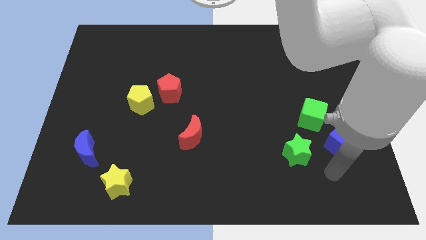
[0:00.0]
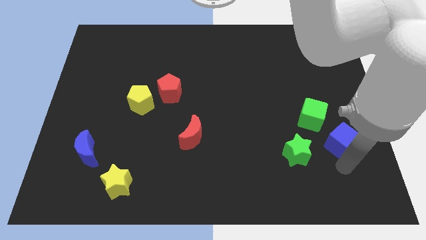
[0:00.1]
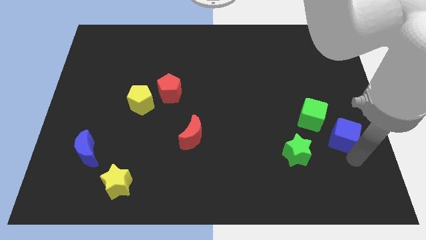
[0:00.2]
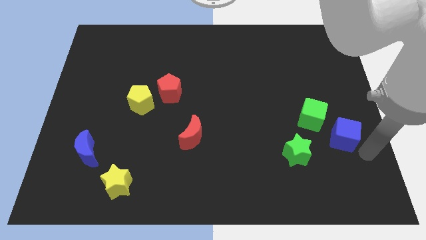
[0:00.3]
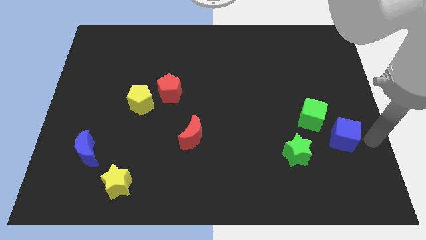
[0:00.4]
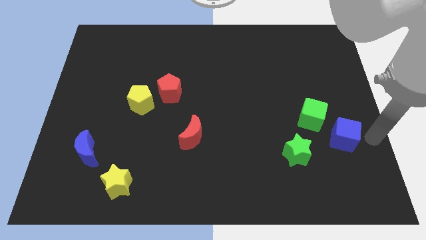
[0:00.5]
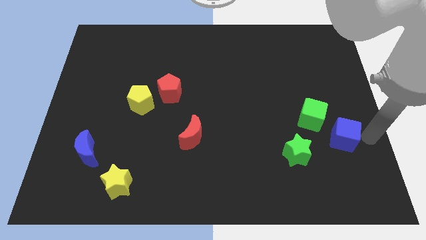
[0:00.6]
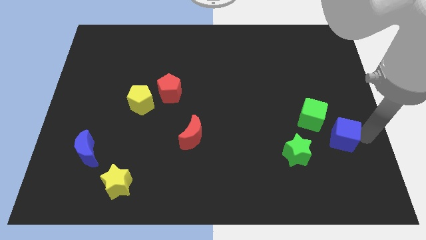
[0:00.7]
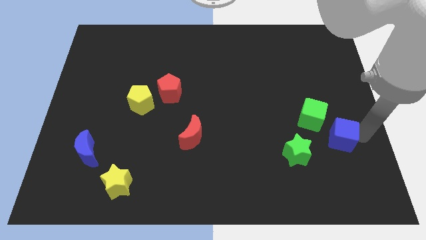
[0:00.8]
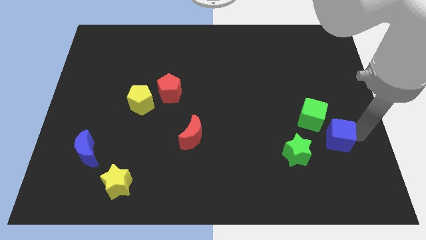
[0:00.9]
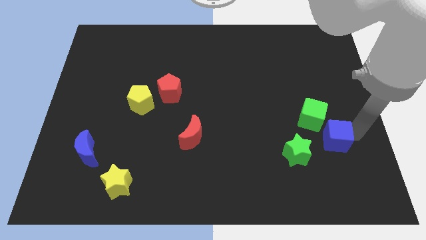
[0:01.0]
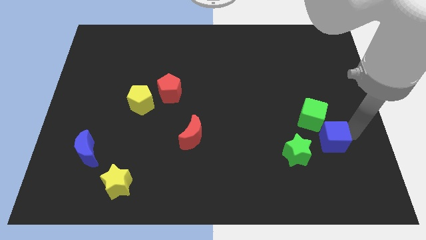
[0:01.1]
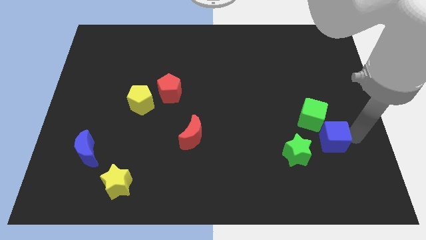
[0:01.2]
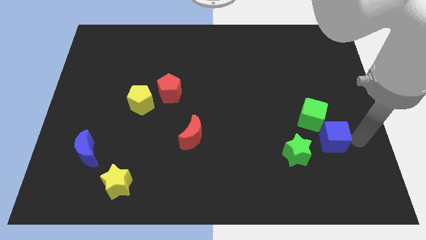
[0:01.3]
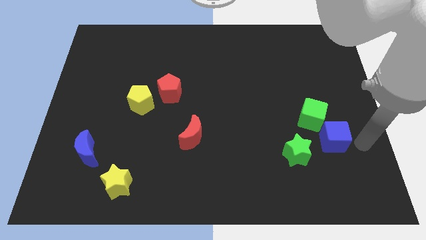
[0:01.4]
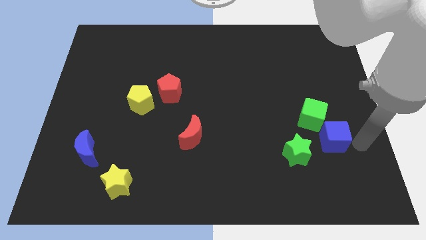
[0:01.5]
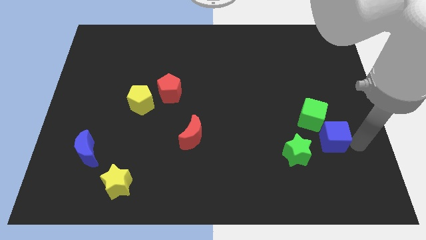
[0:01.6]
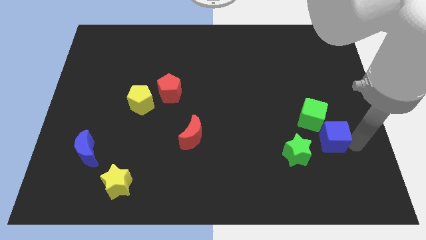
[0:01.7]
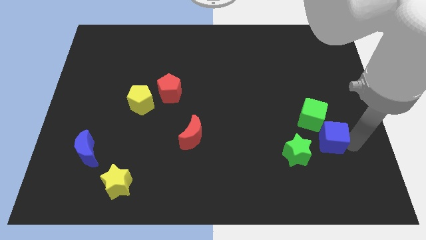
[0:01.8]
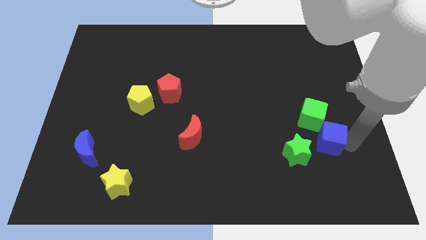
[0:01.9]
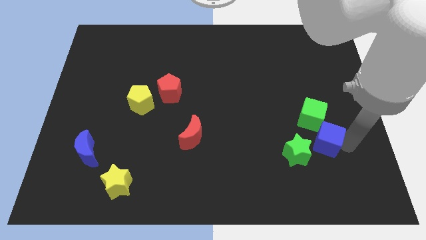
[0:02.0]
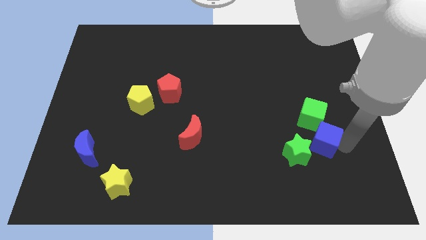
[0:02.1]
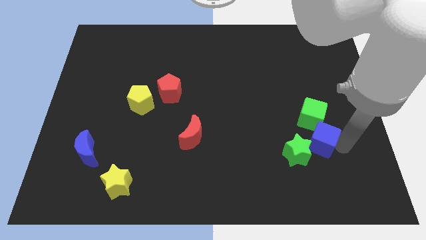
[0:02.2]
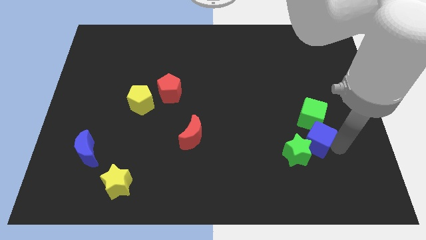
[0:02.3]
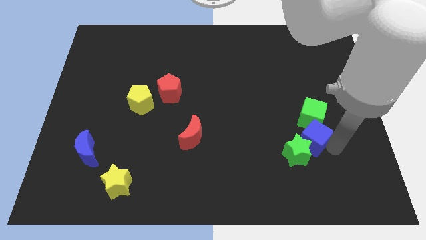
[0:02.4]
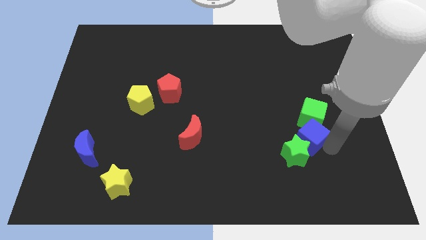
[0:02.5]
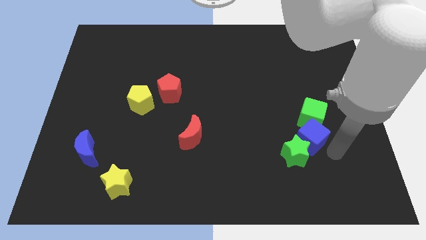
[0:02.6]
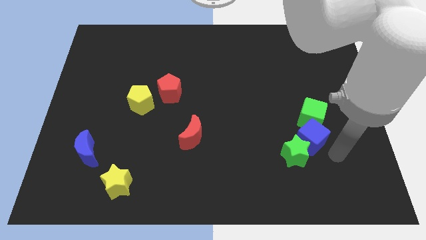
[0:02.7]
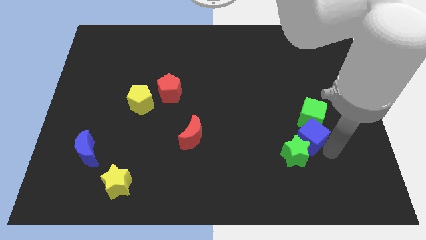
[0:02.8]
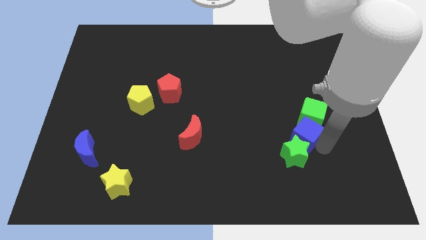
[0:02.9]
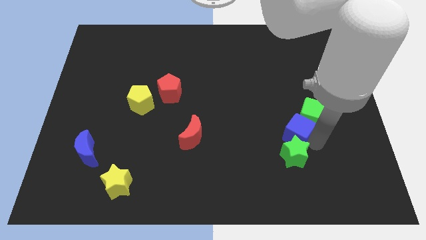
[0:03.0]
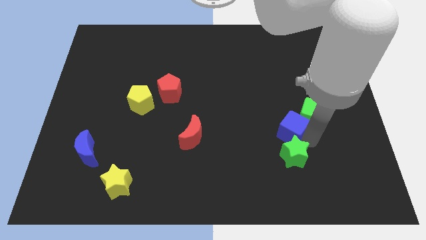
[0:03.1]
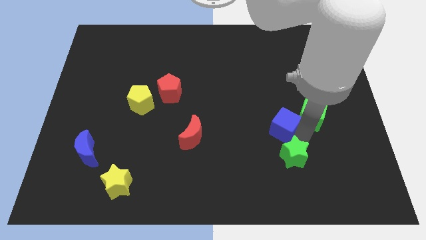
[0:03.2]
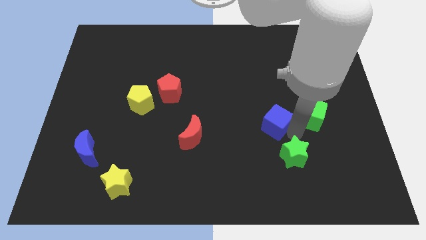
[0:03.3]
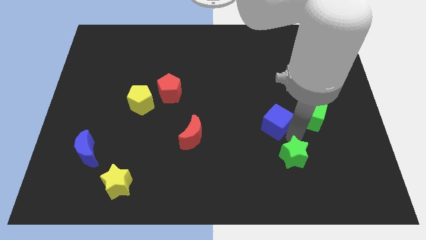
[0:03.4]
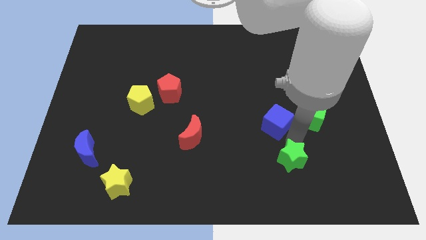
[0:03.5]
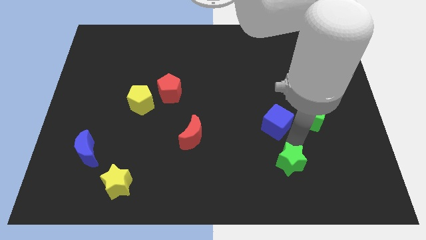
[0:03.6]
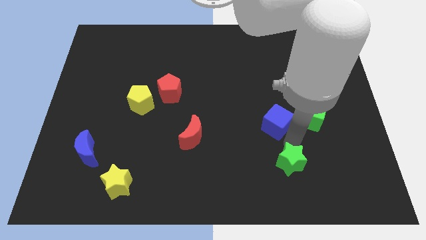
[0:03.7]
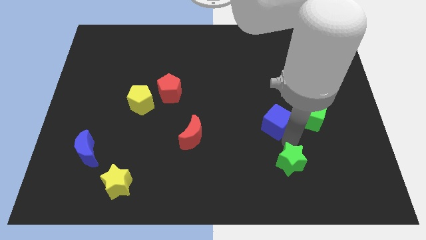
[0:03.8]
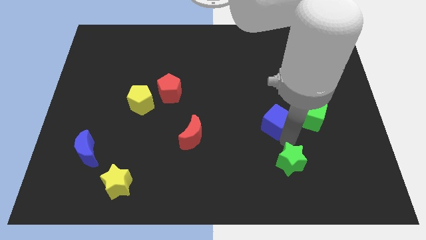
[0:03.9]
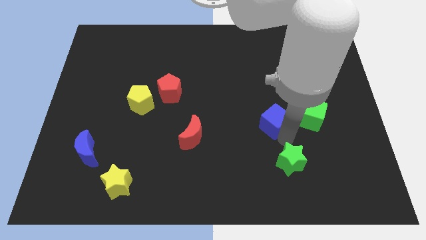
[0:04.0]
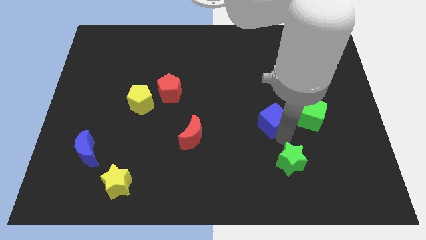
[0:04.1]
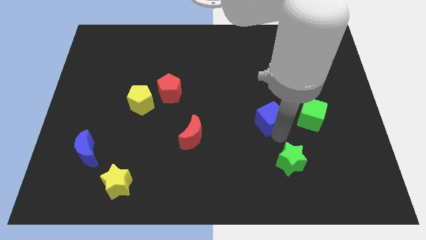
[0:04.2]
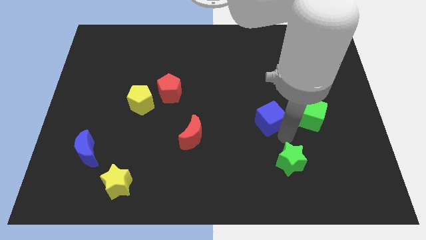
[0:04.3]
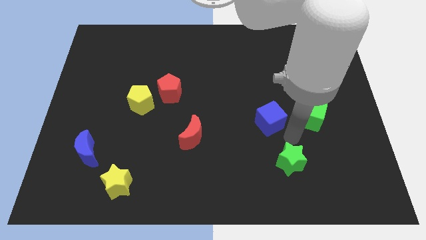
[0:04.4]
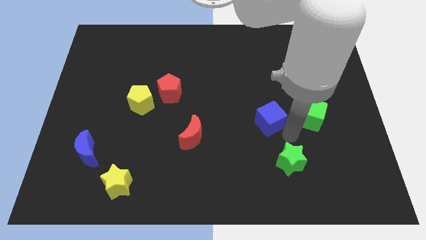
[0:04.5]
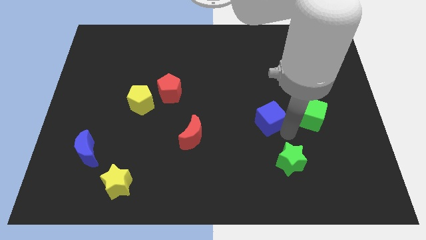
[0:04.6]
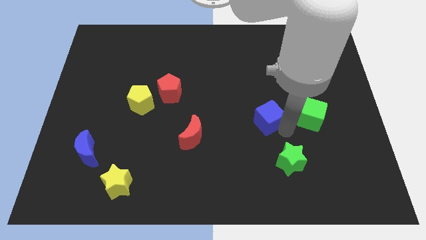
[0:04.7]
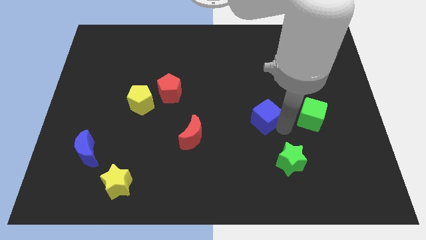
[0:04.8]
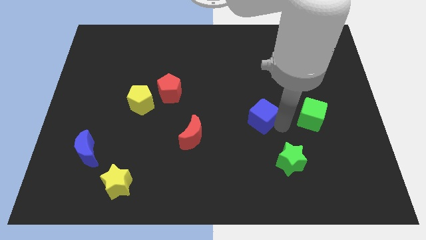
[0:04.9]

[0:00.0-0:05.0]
put the blue cube to the middle of the board

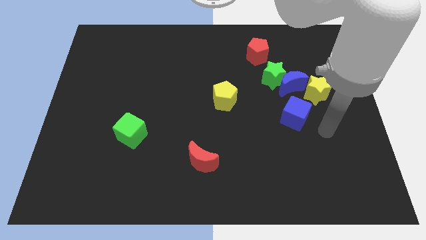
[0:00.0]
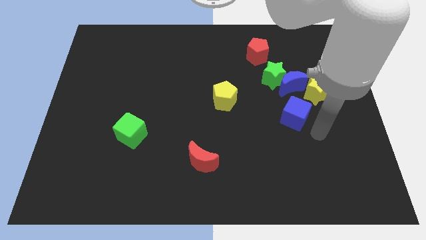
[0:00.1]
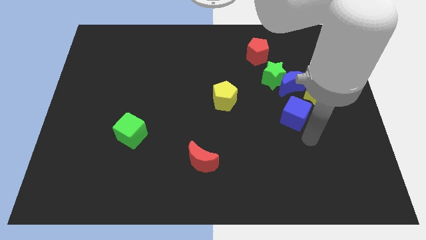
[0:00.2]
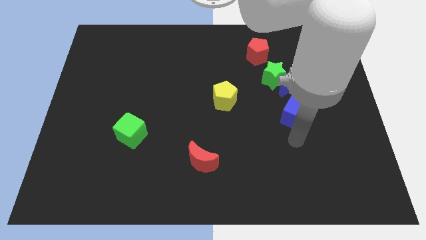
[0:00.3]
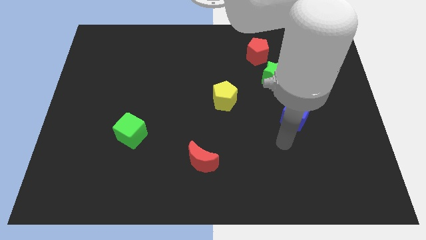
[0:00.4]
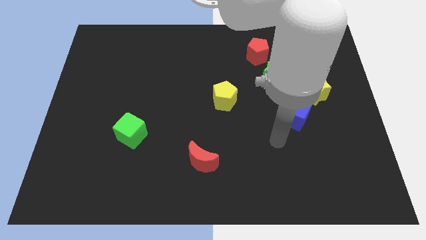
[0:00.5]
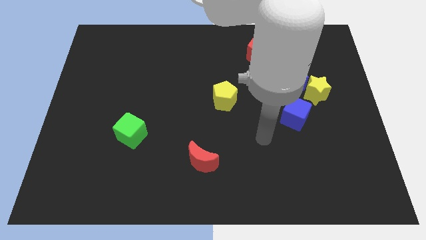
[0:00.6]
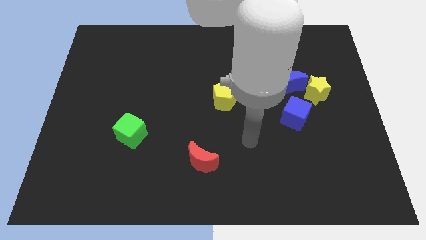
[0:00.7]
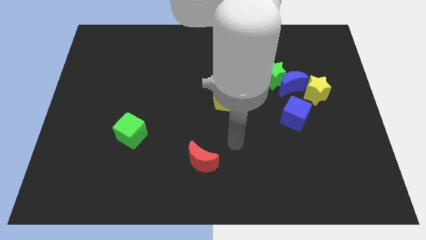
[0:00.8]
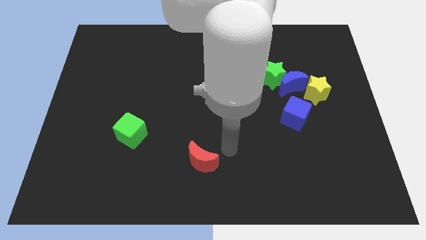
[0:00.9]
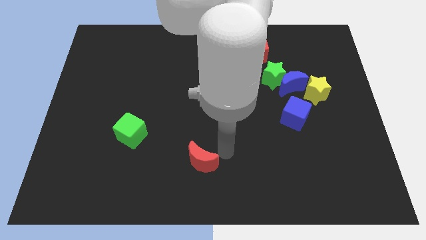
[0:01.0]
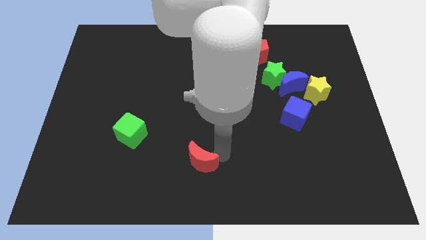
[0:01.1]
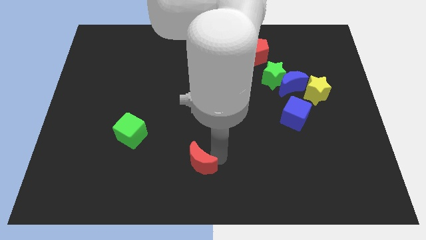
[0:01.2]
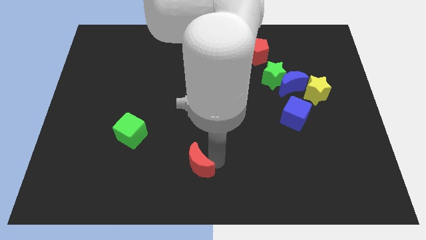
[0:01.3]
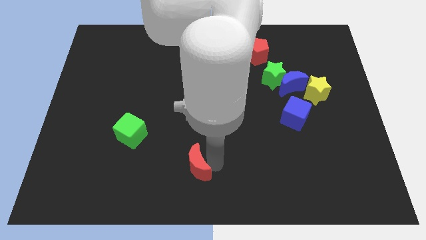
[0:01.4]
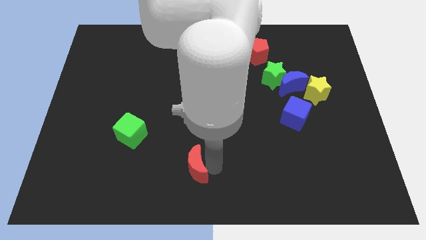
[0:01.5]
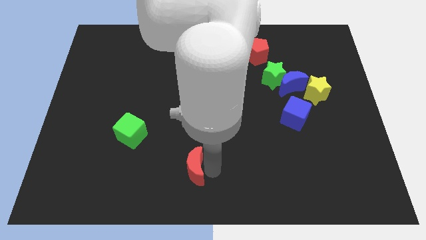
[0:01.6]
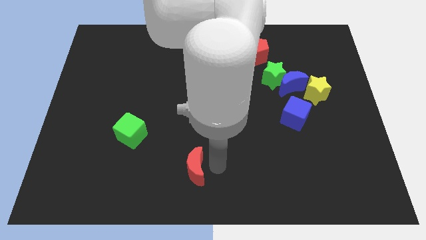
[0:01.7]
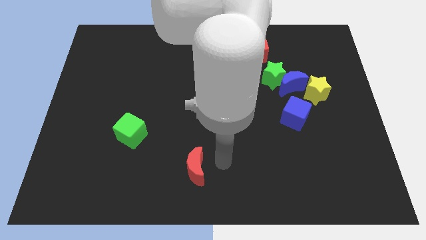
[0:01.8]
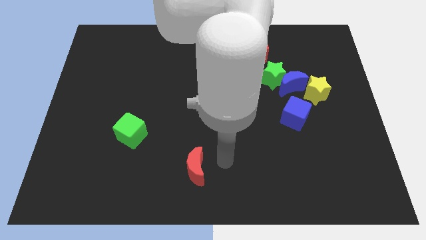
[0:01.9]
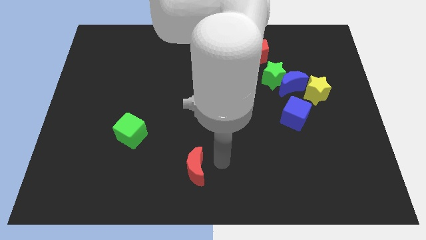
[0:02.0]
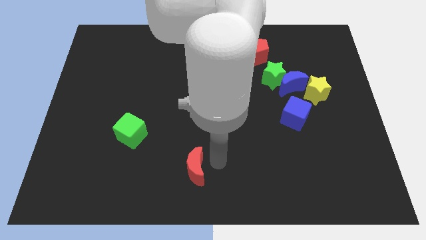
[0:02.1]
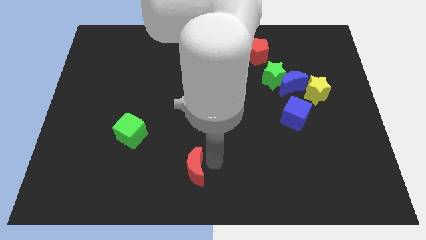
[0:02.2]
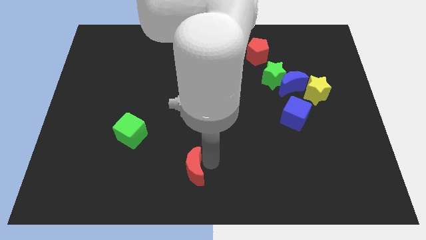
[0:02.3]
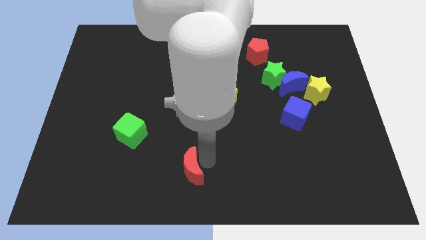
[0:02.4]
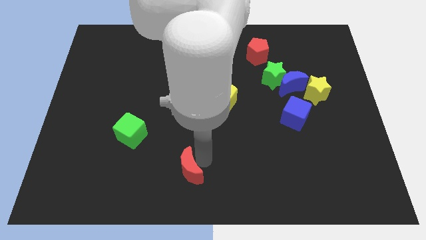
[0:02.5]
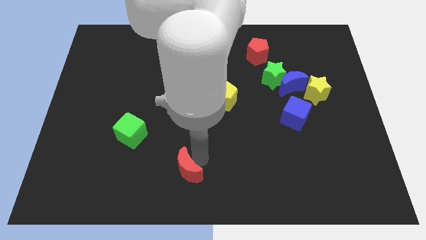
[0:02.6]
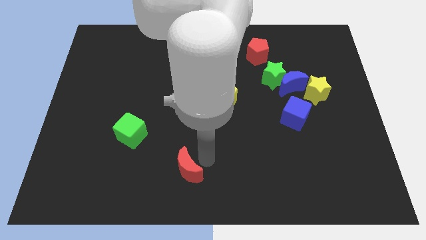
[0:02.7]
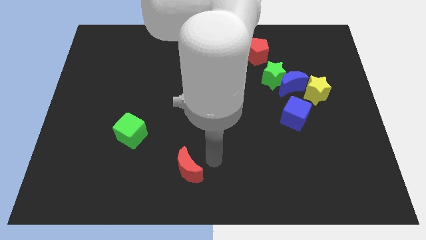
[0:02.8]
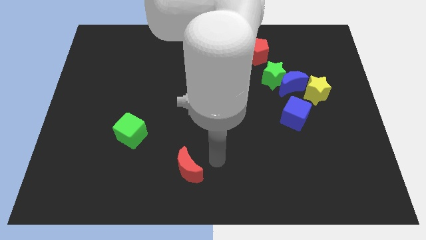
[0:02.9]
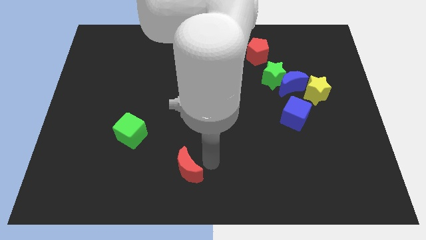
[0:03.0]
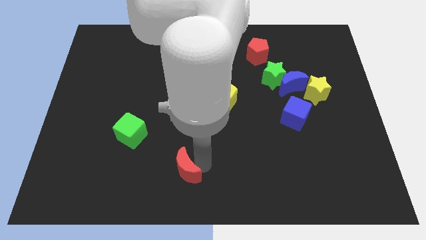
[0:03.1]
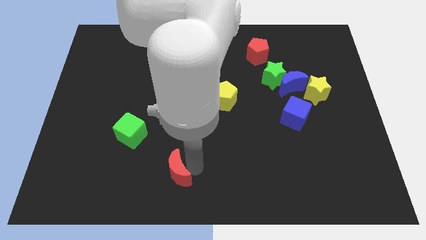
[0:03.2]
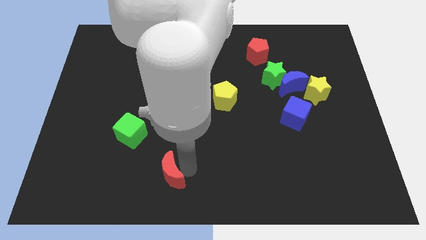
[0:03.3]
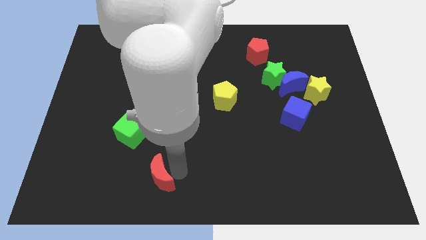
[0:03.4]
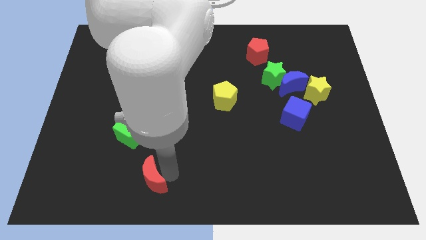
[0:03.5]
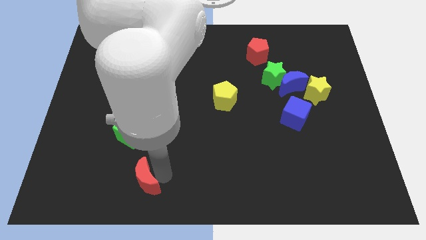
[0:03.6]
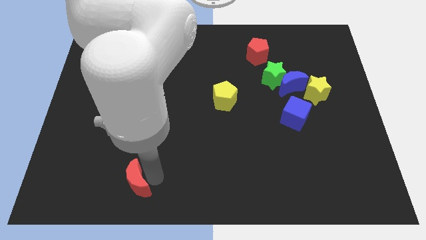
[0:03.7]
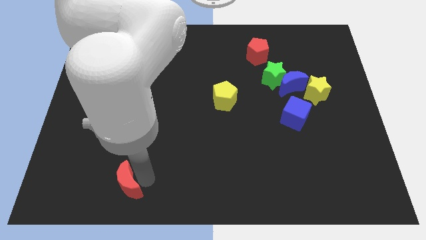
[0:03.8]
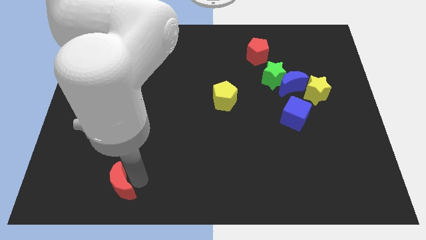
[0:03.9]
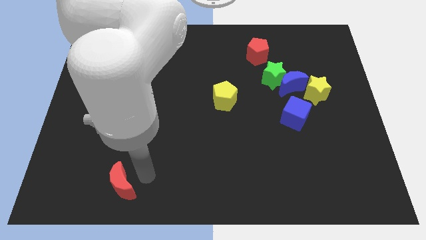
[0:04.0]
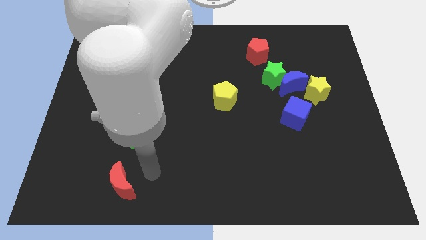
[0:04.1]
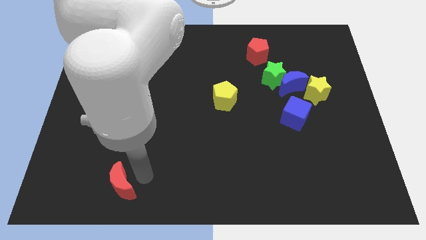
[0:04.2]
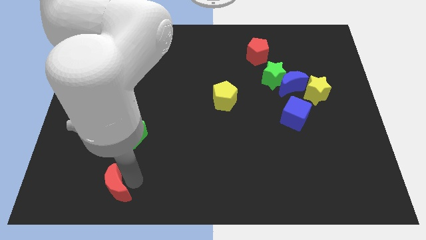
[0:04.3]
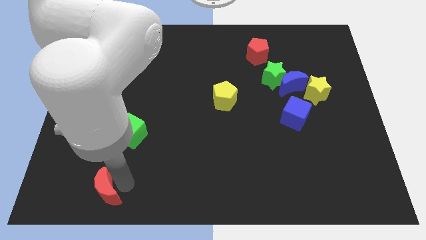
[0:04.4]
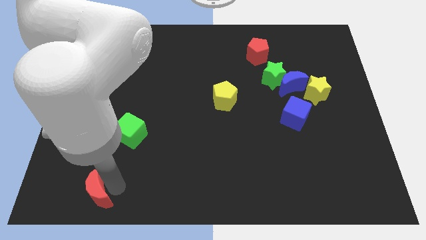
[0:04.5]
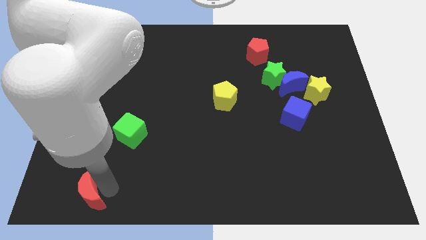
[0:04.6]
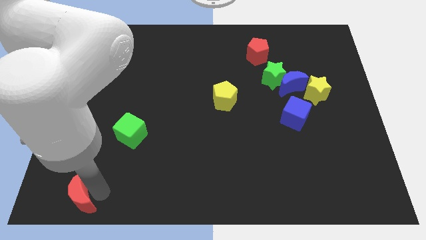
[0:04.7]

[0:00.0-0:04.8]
push the red moon to the bottom left corner
